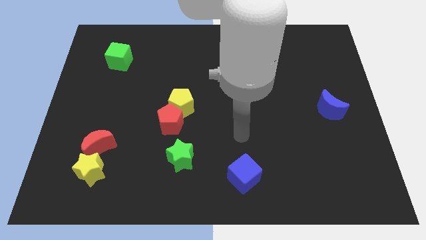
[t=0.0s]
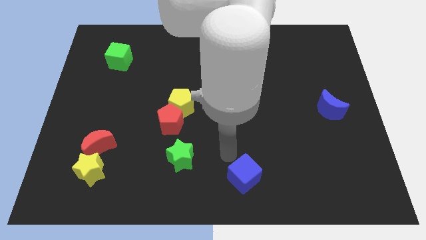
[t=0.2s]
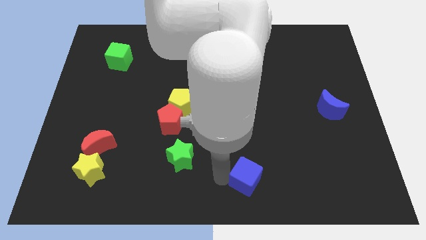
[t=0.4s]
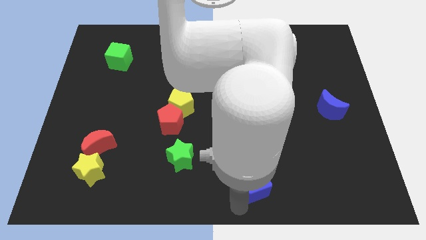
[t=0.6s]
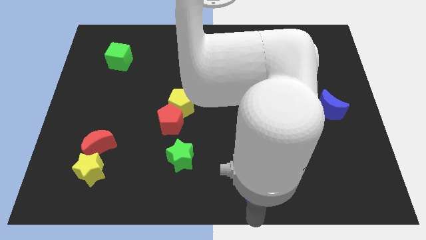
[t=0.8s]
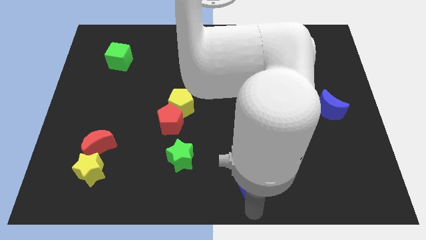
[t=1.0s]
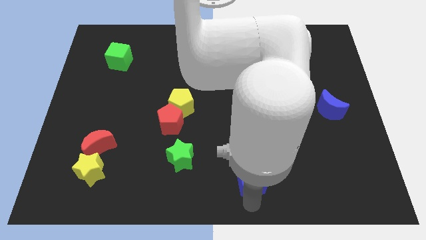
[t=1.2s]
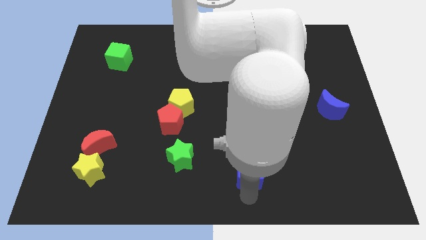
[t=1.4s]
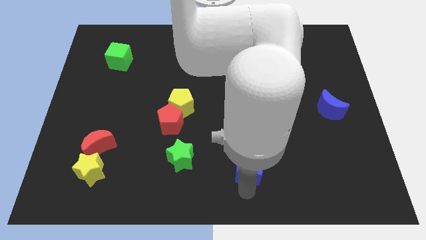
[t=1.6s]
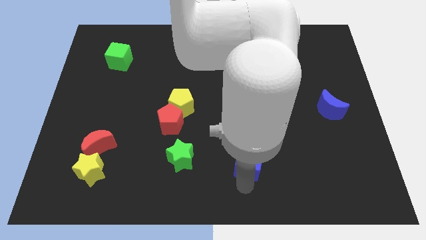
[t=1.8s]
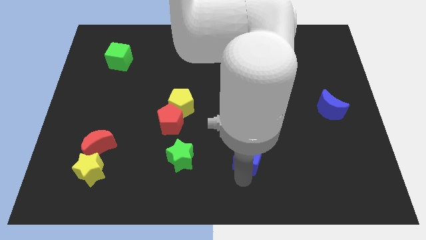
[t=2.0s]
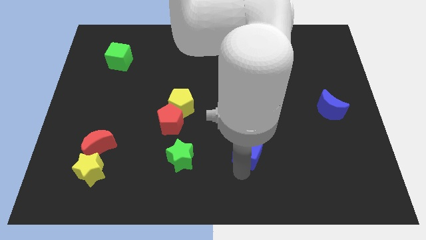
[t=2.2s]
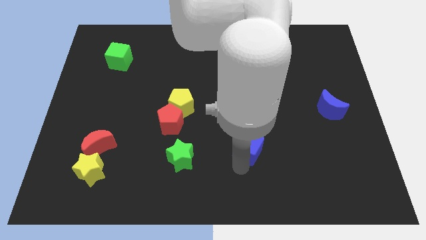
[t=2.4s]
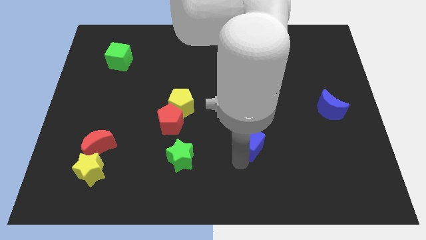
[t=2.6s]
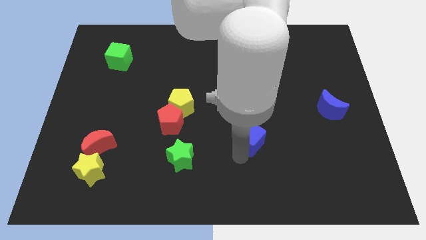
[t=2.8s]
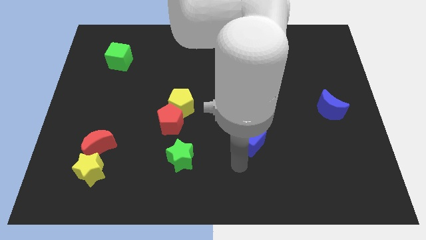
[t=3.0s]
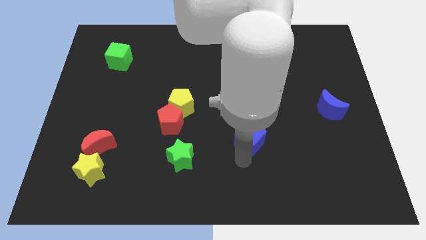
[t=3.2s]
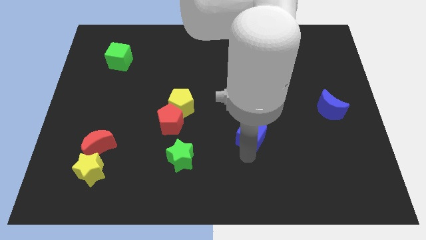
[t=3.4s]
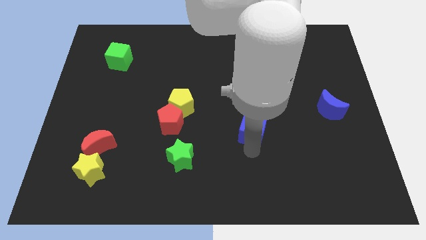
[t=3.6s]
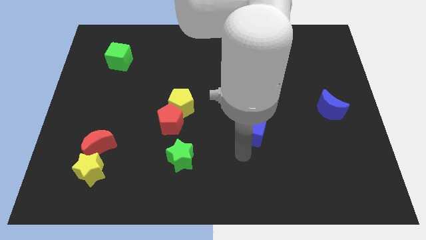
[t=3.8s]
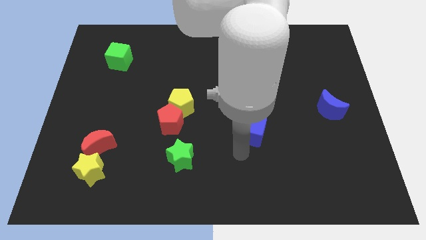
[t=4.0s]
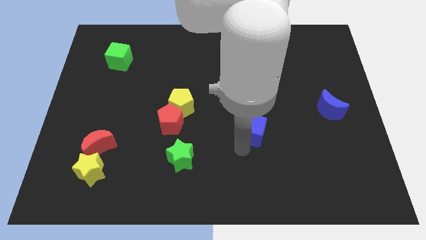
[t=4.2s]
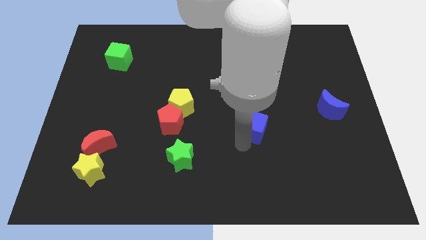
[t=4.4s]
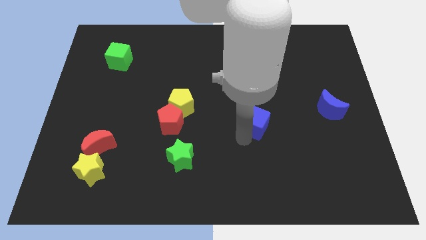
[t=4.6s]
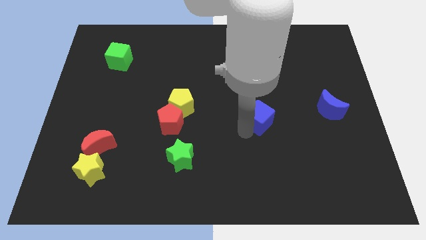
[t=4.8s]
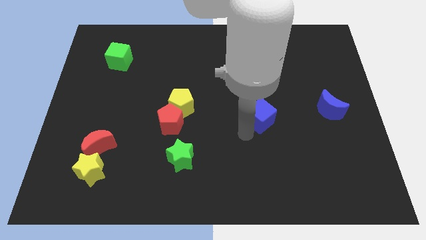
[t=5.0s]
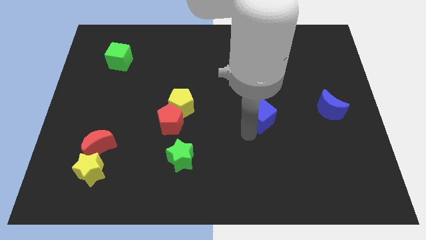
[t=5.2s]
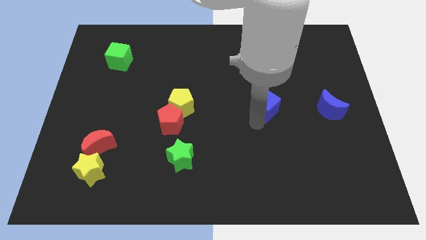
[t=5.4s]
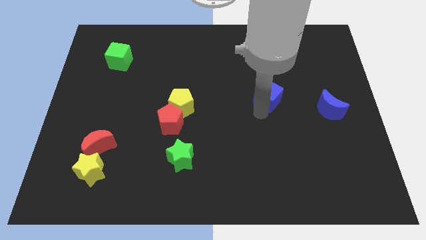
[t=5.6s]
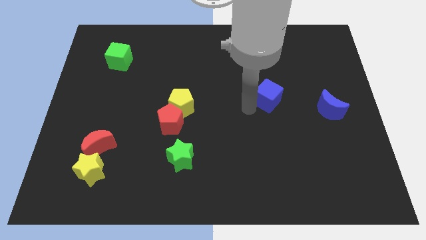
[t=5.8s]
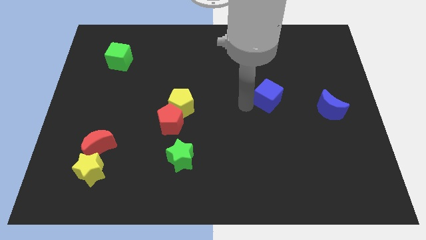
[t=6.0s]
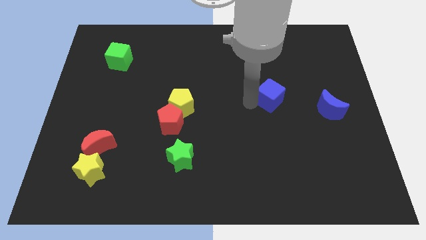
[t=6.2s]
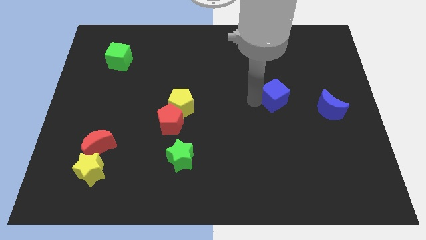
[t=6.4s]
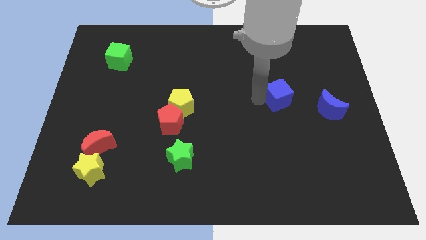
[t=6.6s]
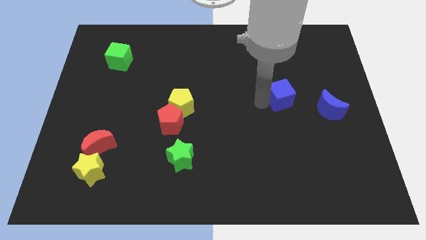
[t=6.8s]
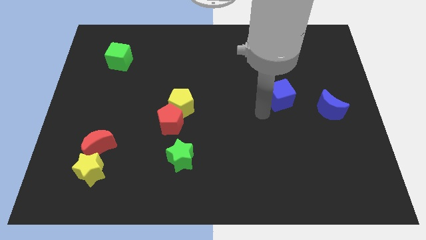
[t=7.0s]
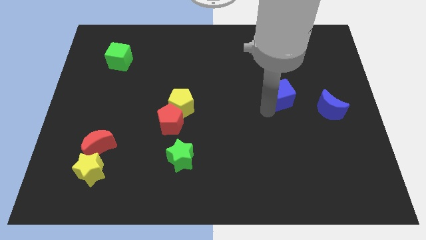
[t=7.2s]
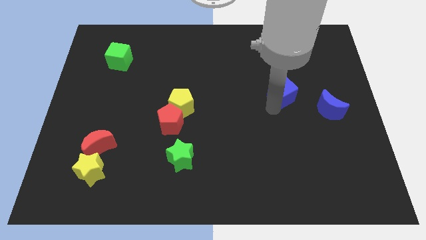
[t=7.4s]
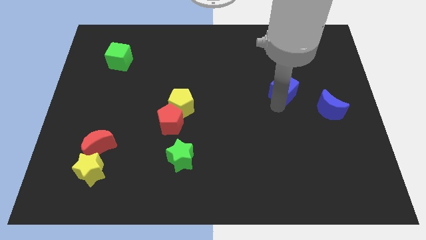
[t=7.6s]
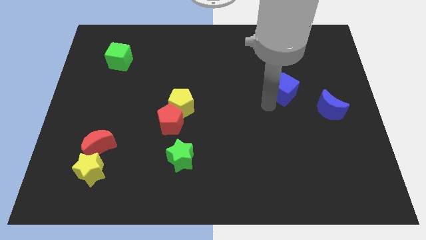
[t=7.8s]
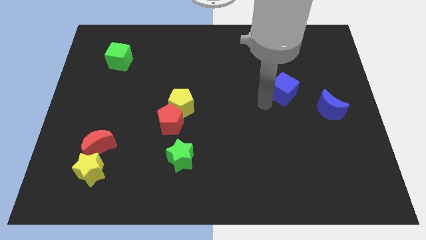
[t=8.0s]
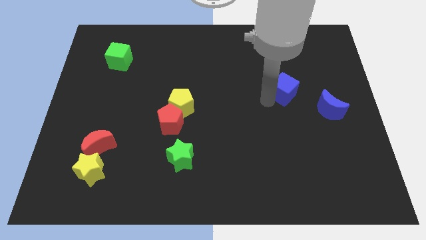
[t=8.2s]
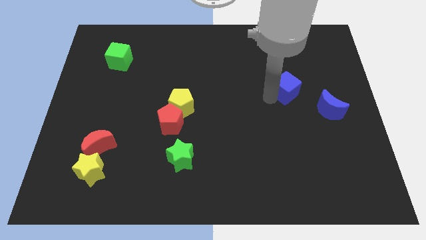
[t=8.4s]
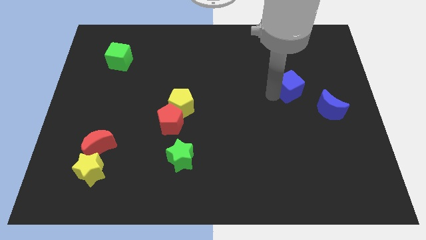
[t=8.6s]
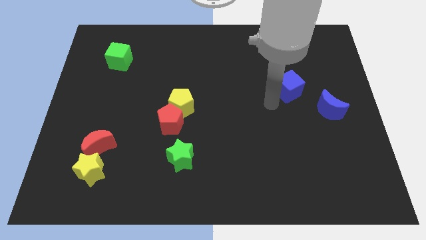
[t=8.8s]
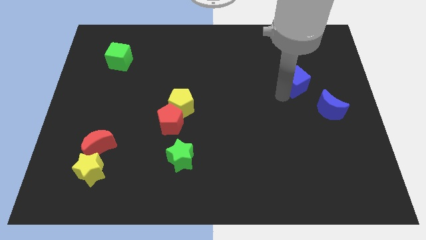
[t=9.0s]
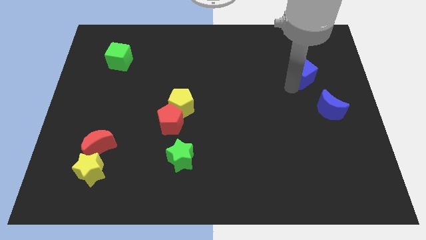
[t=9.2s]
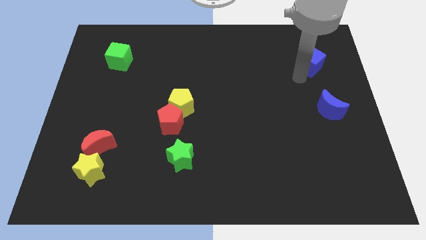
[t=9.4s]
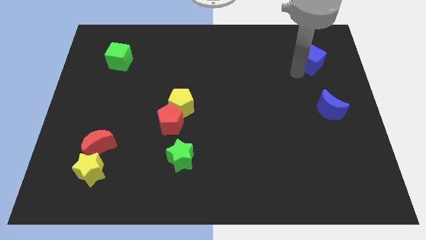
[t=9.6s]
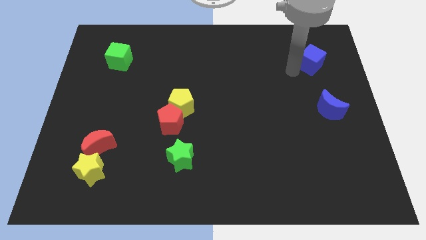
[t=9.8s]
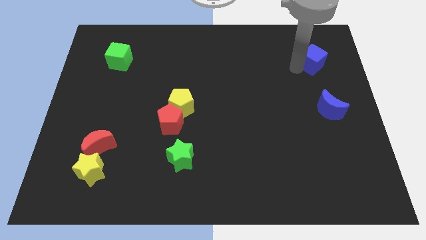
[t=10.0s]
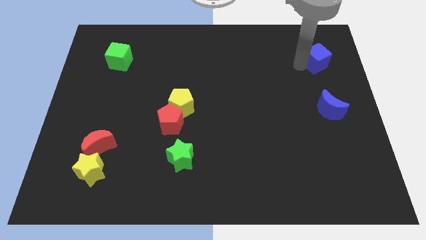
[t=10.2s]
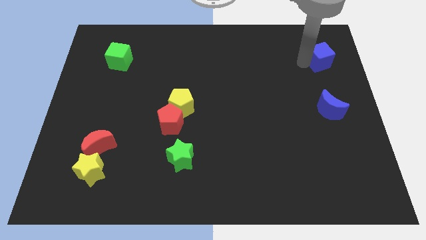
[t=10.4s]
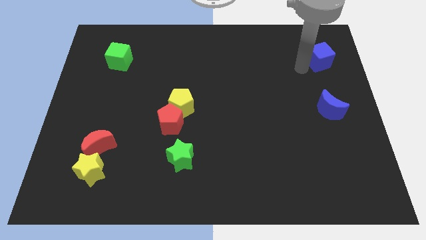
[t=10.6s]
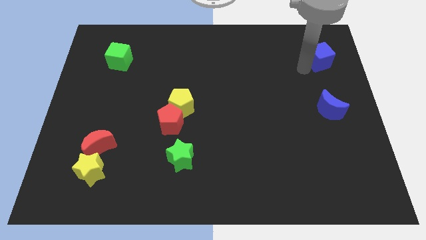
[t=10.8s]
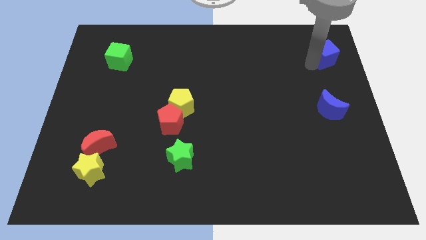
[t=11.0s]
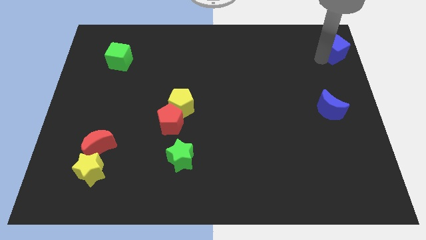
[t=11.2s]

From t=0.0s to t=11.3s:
push the blue cube to the upper right corner
